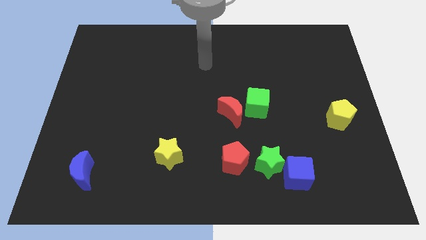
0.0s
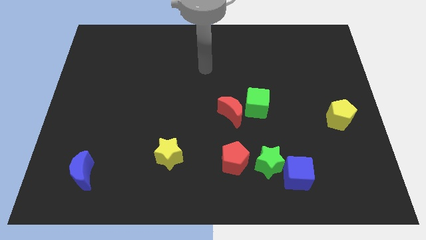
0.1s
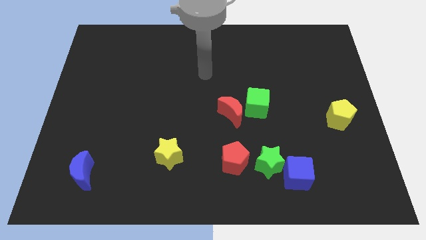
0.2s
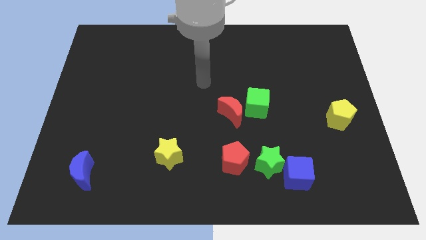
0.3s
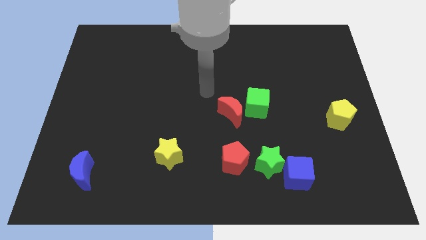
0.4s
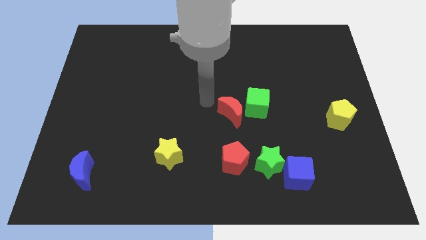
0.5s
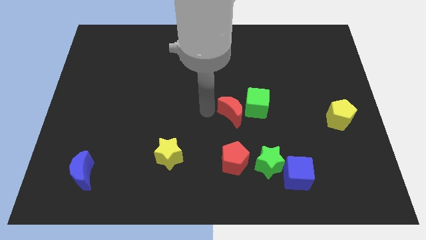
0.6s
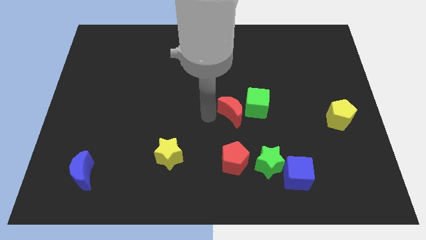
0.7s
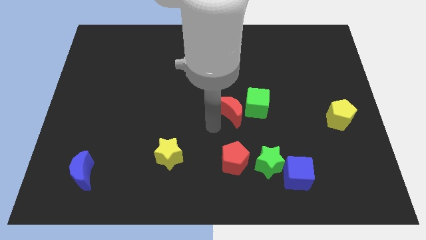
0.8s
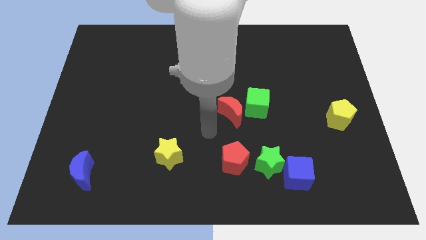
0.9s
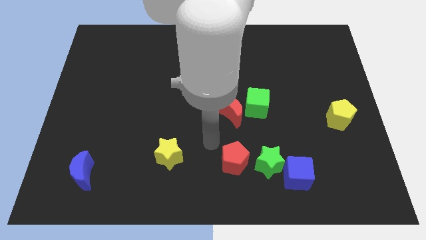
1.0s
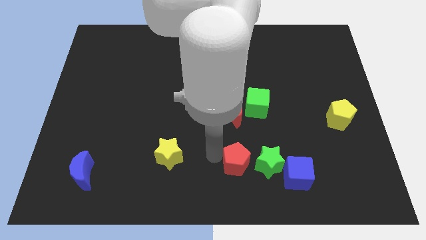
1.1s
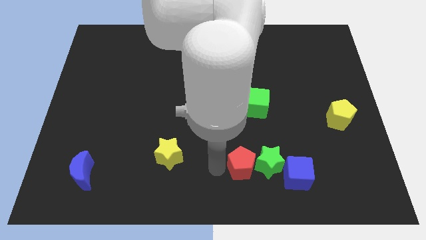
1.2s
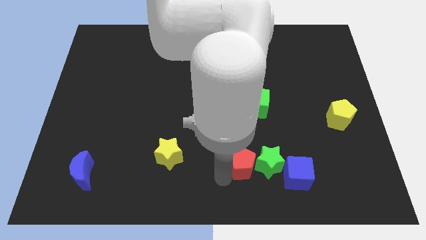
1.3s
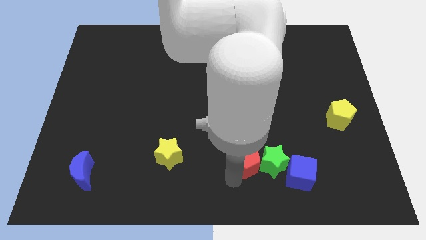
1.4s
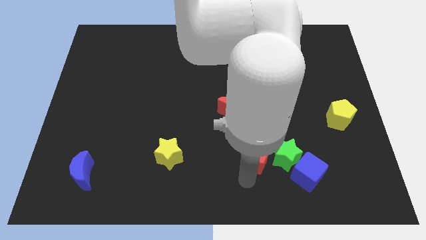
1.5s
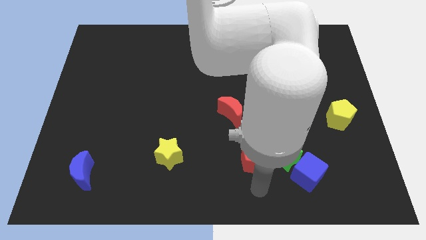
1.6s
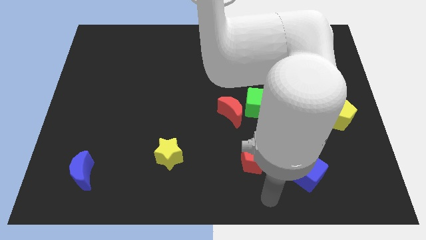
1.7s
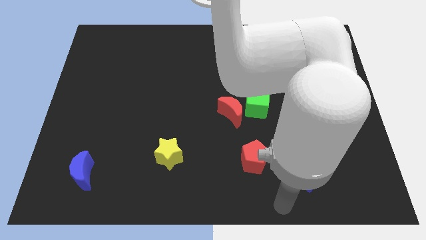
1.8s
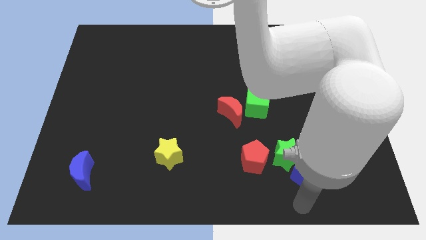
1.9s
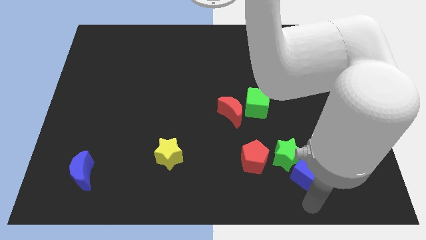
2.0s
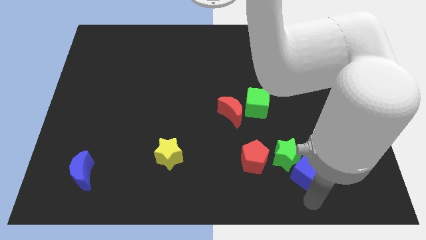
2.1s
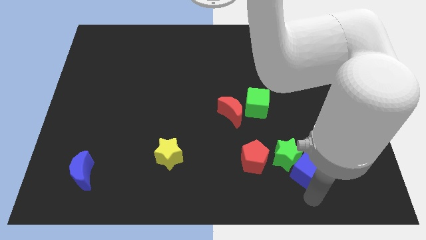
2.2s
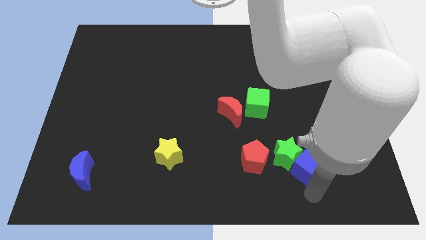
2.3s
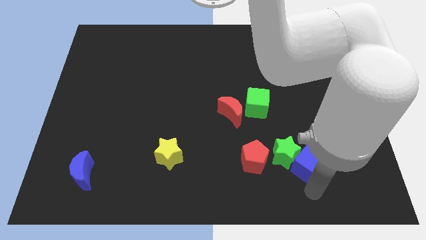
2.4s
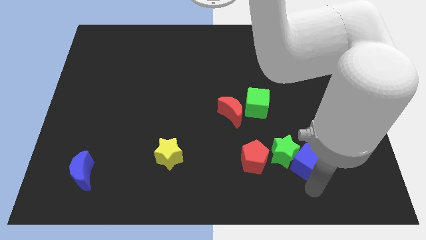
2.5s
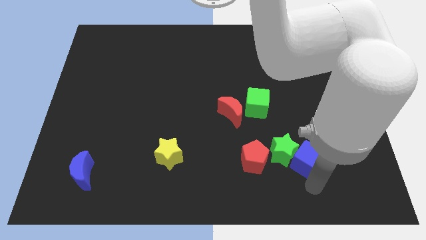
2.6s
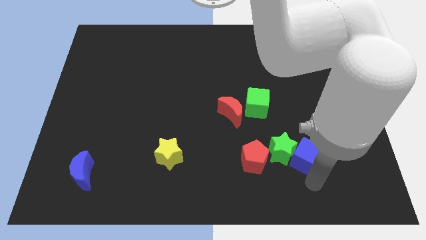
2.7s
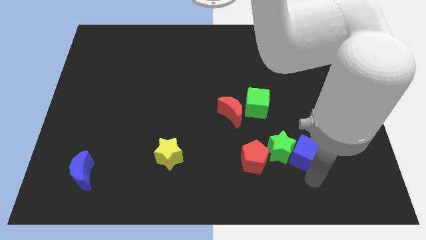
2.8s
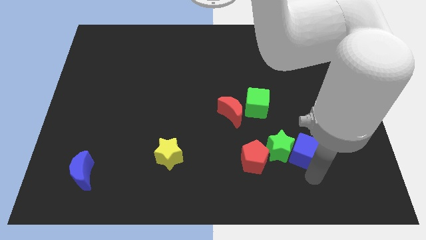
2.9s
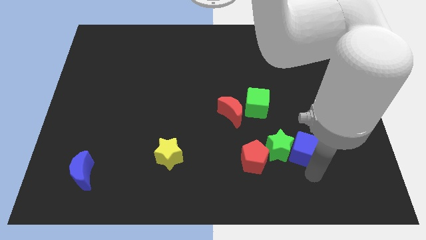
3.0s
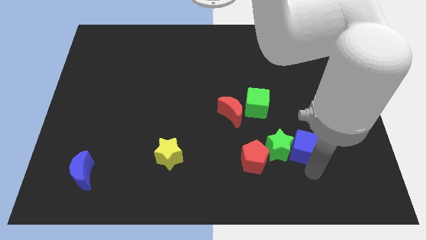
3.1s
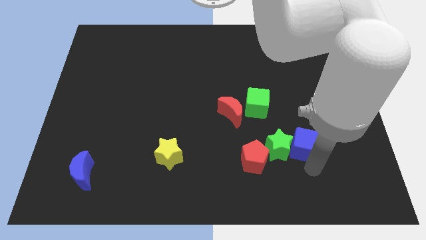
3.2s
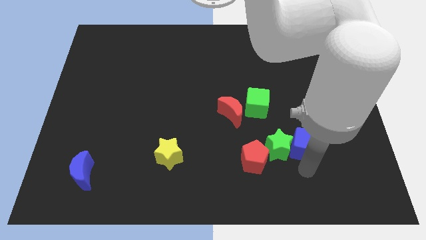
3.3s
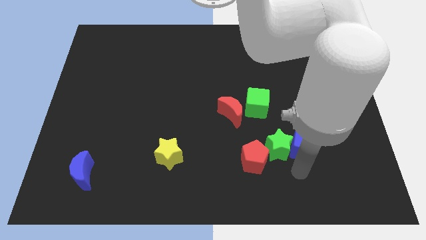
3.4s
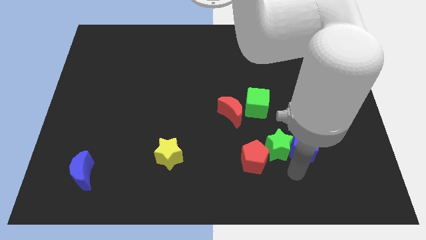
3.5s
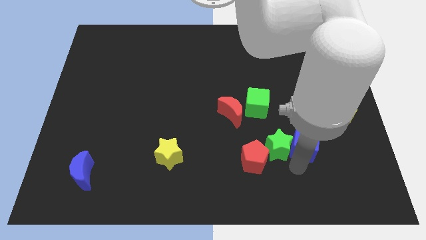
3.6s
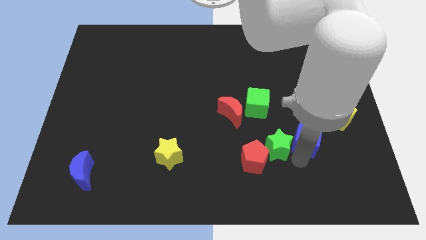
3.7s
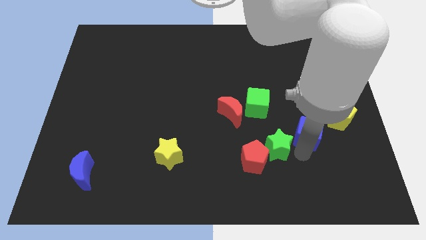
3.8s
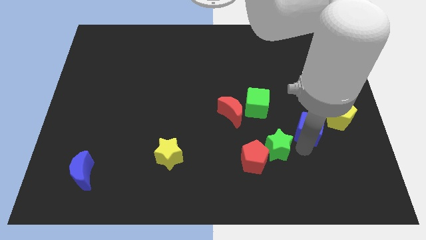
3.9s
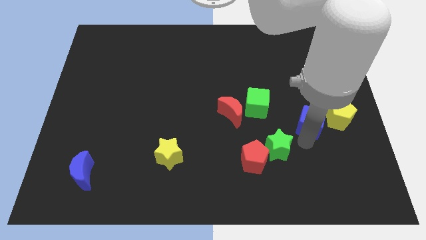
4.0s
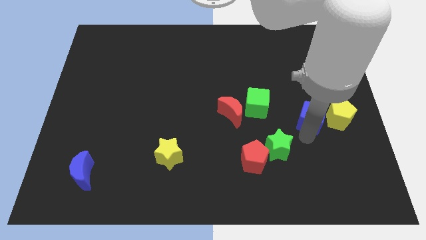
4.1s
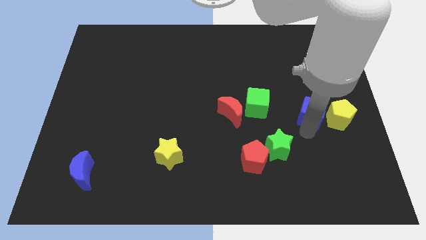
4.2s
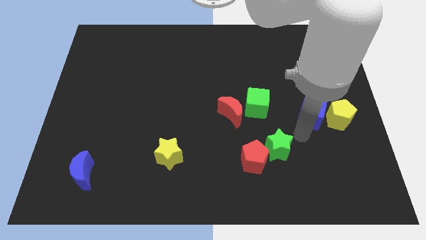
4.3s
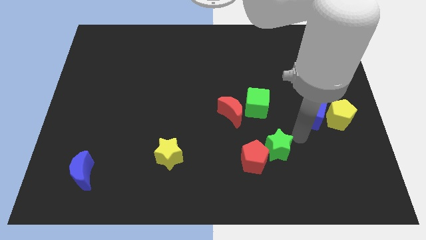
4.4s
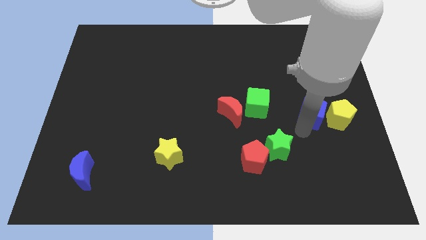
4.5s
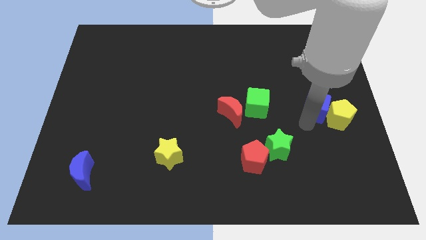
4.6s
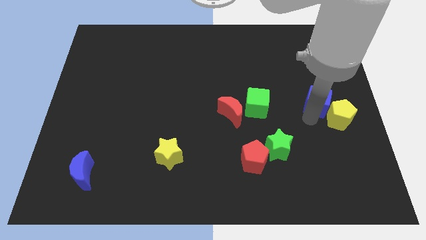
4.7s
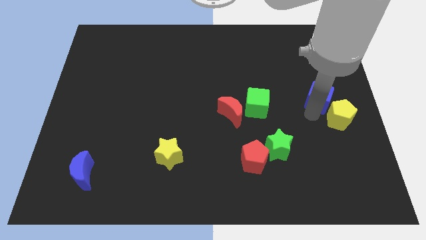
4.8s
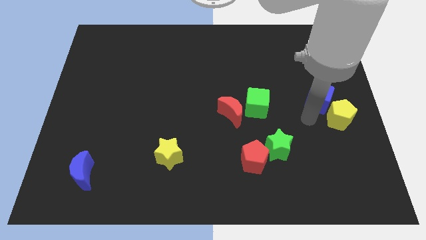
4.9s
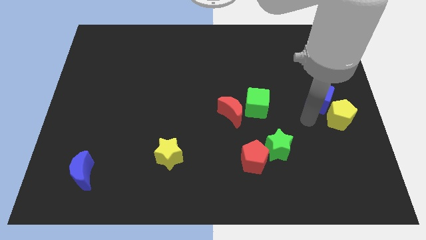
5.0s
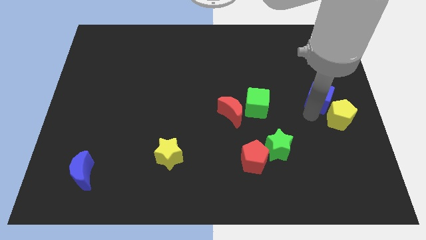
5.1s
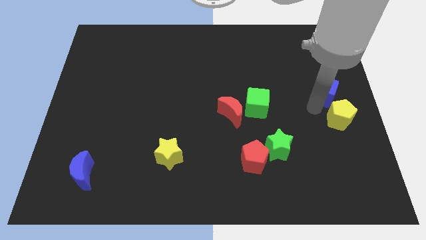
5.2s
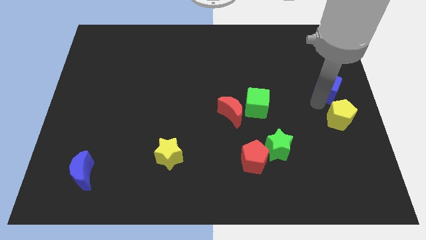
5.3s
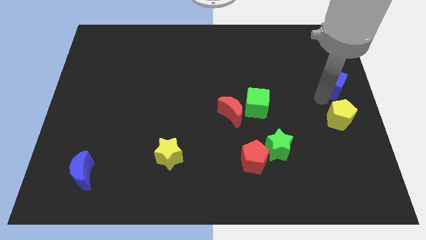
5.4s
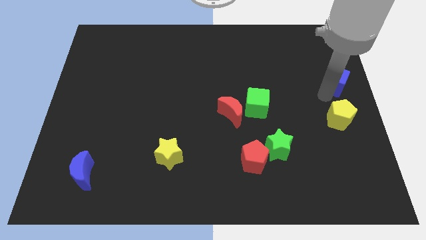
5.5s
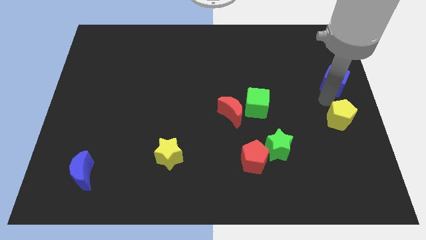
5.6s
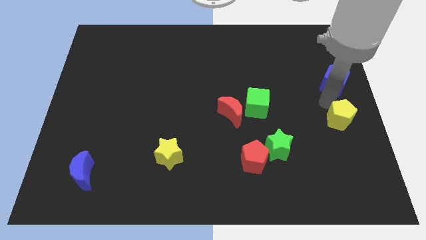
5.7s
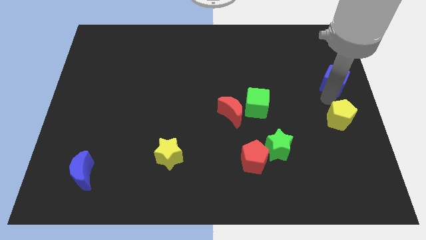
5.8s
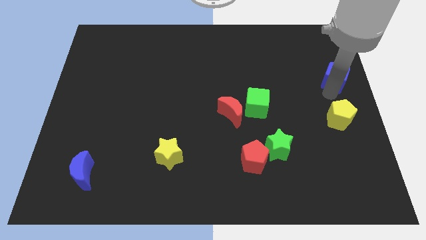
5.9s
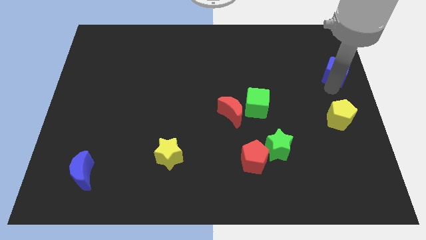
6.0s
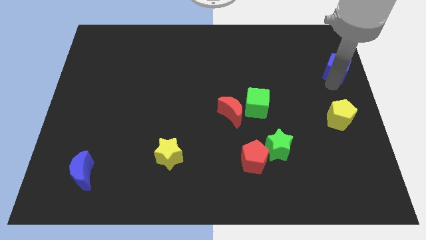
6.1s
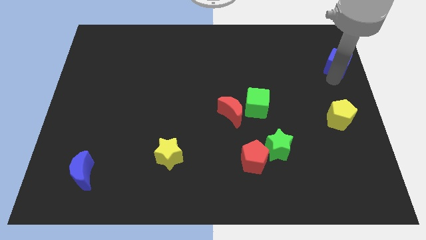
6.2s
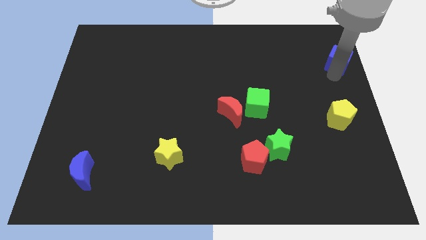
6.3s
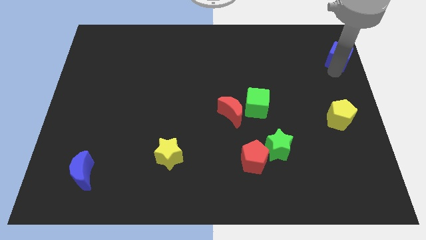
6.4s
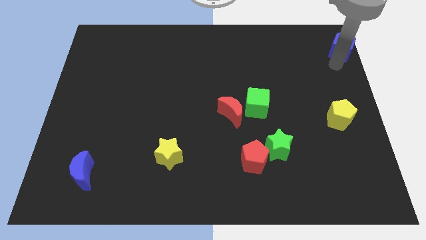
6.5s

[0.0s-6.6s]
move the blue cube to the top right of the board

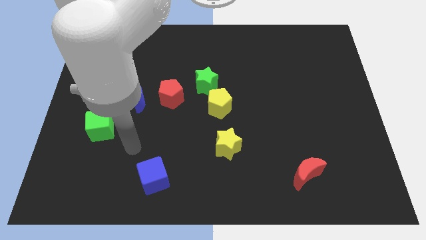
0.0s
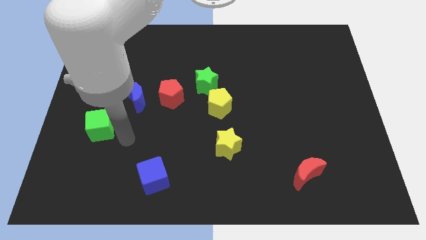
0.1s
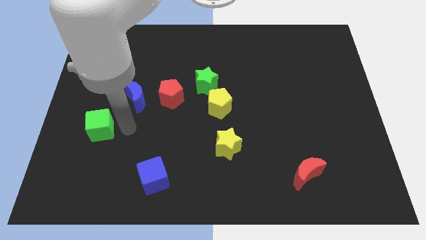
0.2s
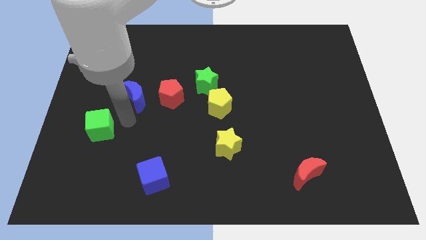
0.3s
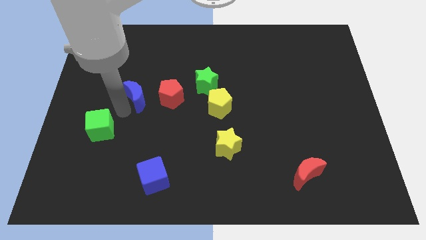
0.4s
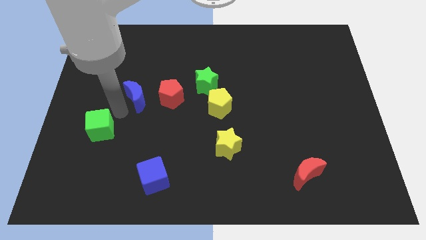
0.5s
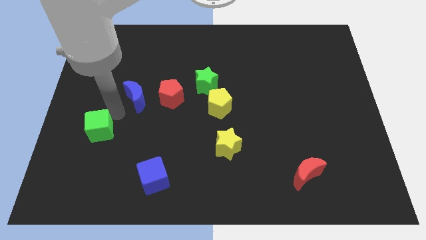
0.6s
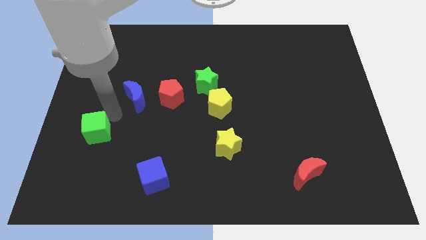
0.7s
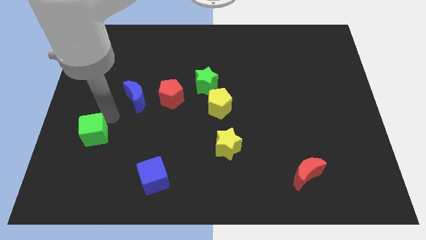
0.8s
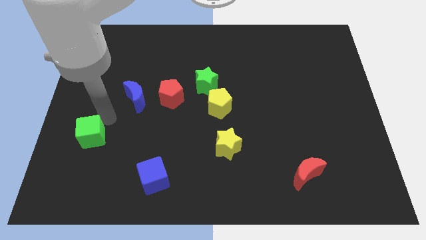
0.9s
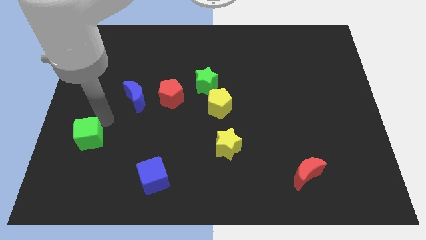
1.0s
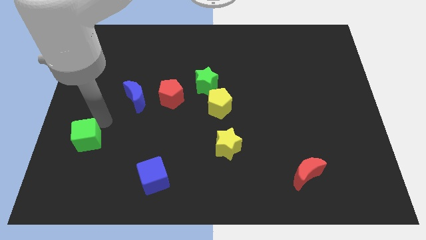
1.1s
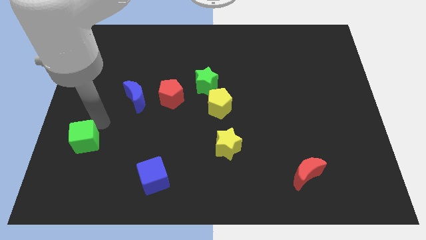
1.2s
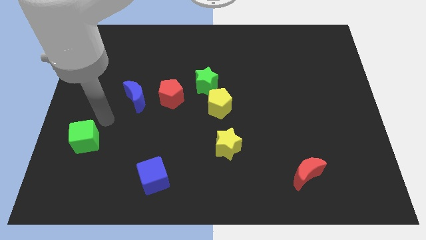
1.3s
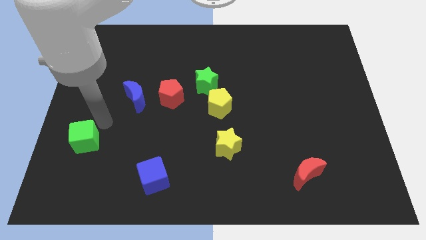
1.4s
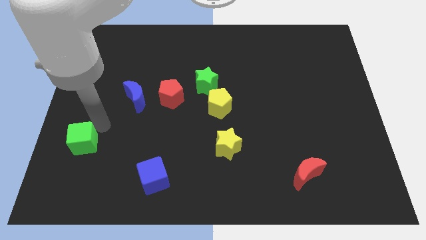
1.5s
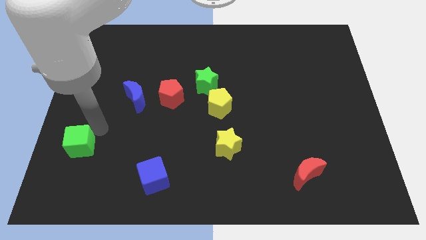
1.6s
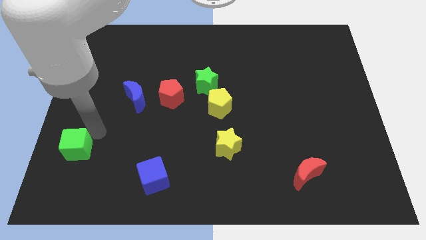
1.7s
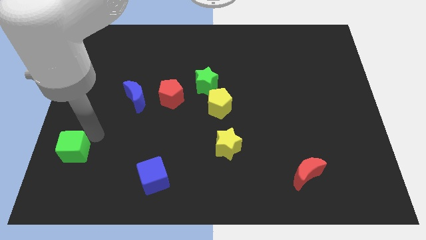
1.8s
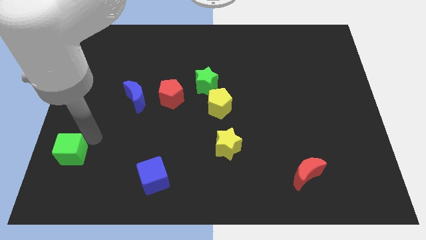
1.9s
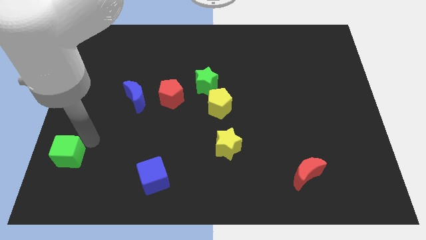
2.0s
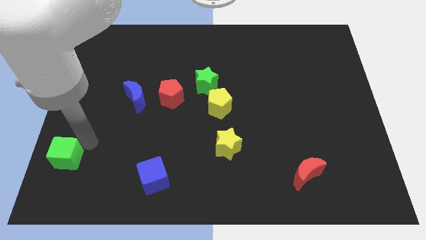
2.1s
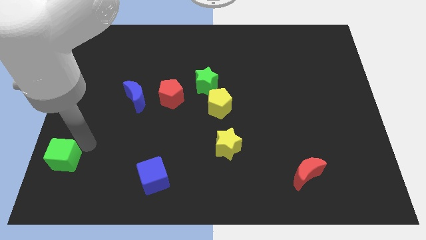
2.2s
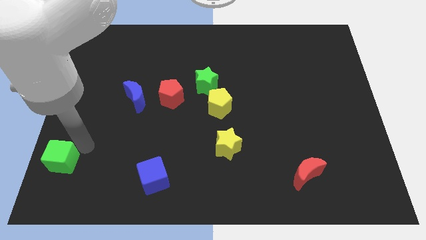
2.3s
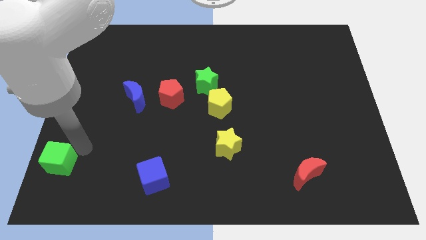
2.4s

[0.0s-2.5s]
move the green cube to the bottom left of the board
